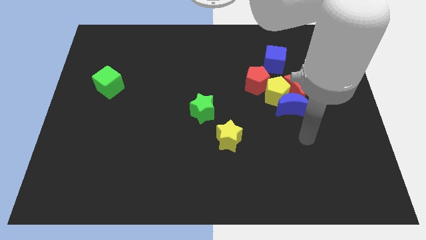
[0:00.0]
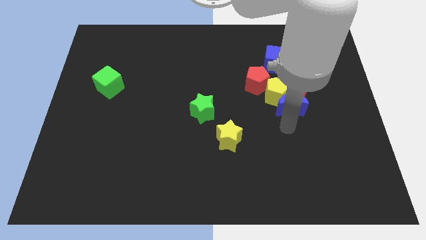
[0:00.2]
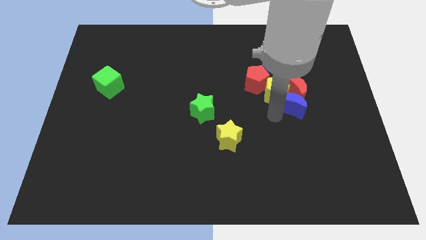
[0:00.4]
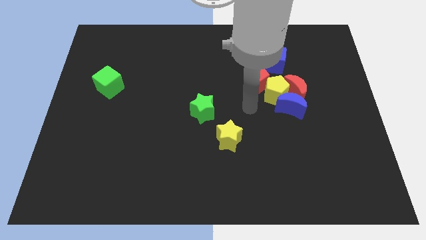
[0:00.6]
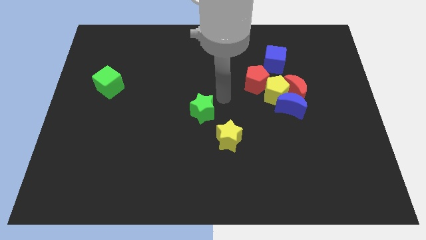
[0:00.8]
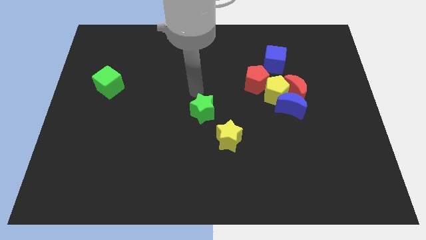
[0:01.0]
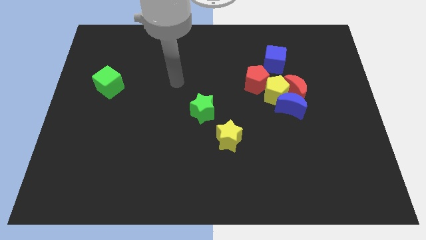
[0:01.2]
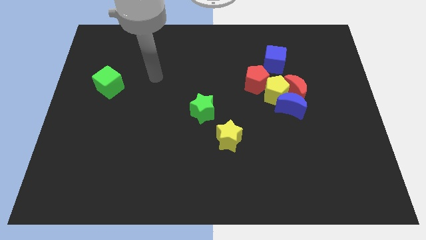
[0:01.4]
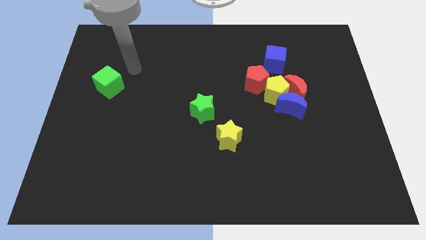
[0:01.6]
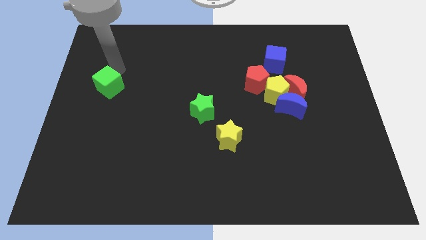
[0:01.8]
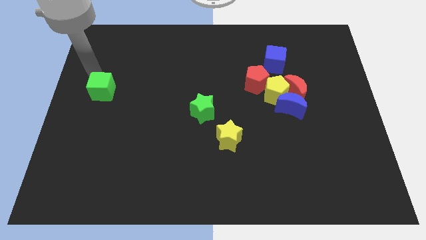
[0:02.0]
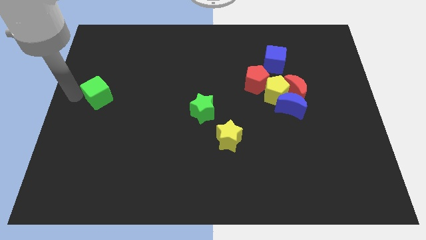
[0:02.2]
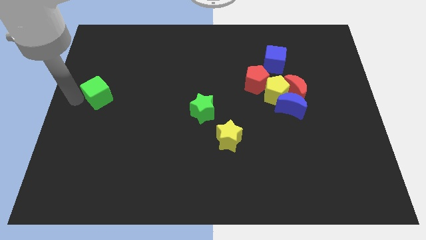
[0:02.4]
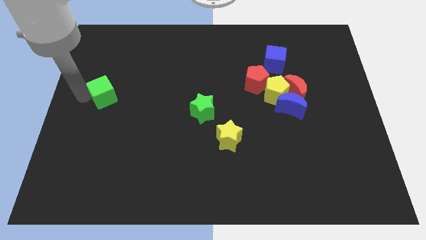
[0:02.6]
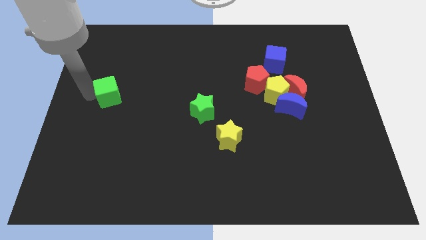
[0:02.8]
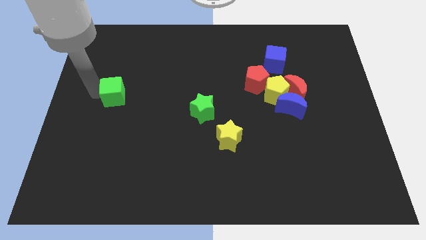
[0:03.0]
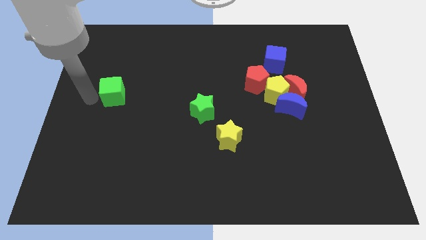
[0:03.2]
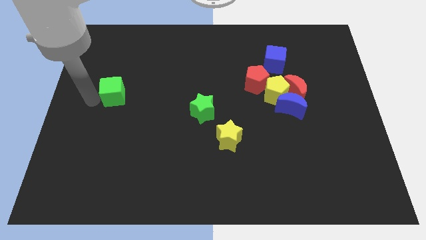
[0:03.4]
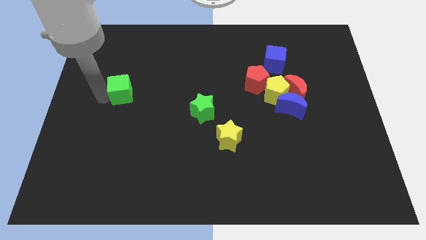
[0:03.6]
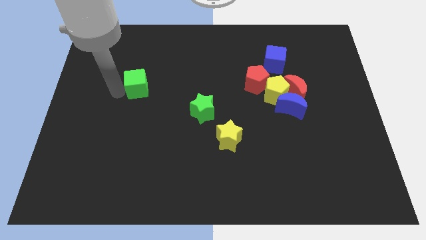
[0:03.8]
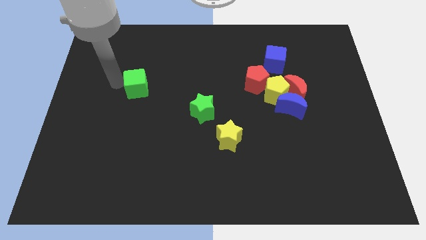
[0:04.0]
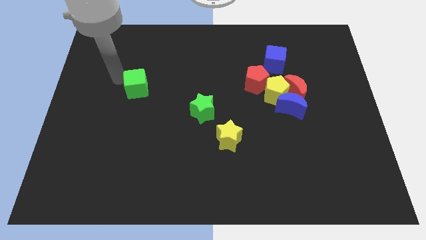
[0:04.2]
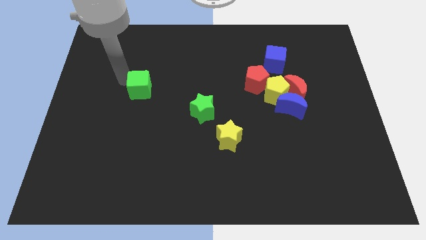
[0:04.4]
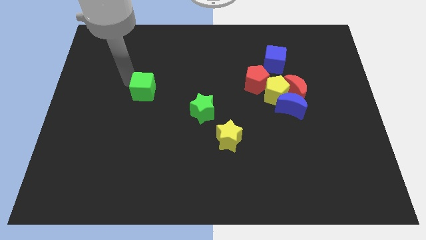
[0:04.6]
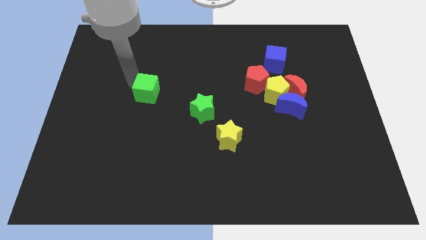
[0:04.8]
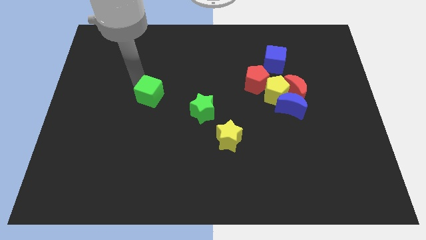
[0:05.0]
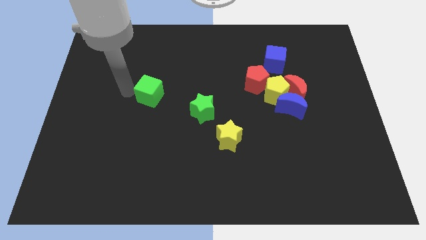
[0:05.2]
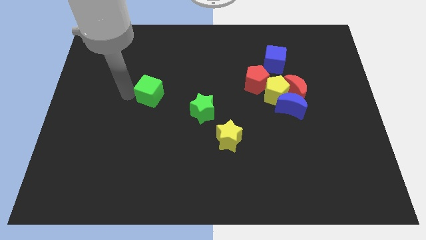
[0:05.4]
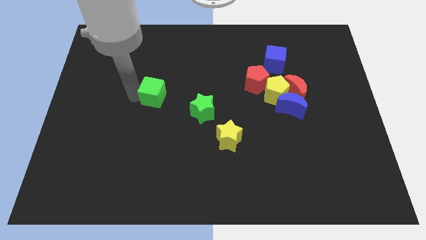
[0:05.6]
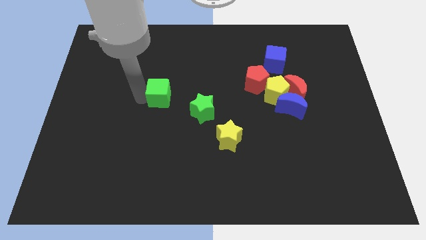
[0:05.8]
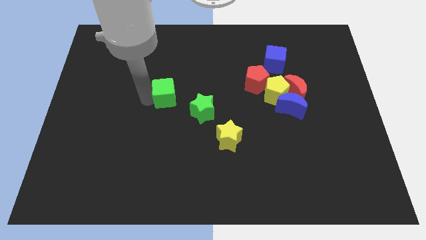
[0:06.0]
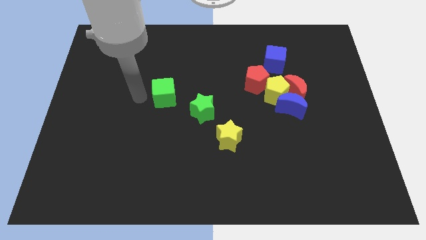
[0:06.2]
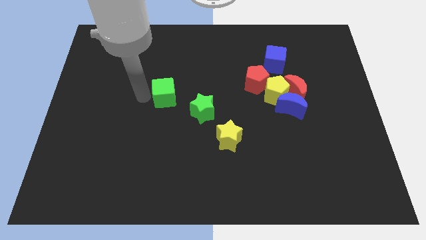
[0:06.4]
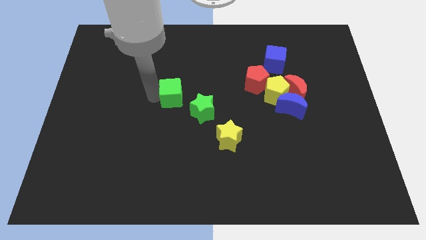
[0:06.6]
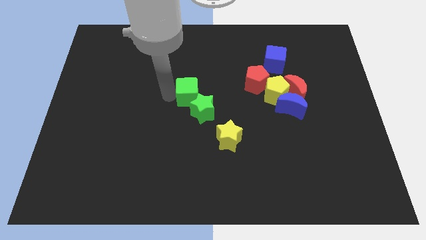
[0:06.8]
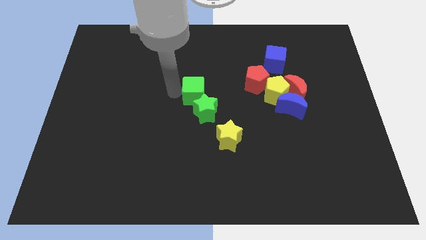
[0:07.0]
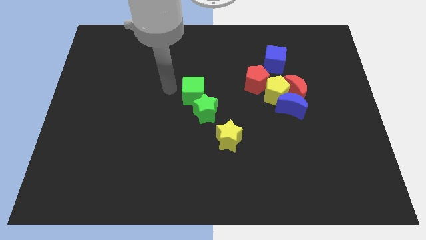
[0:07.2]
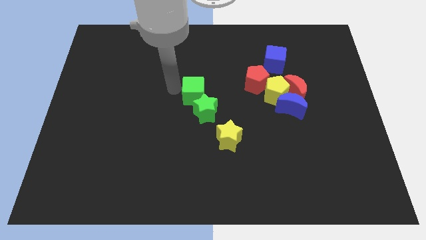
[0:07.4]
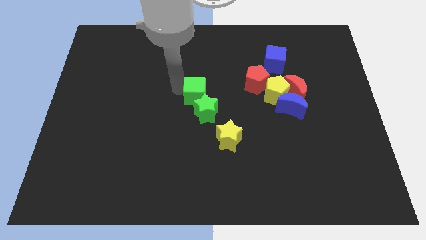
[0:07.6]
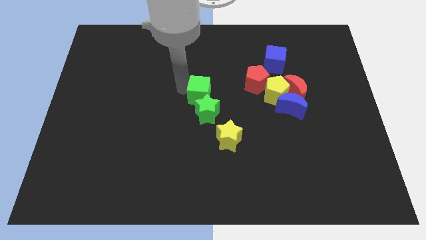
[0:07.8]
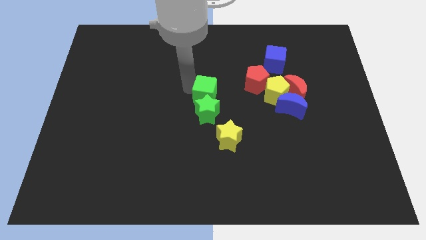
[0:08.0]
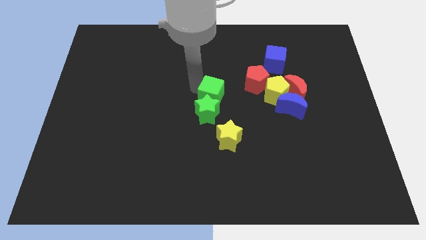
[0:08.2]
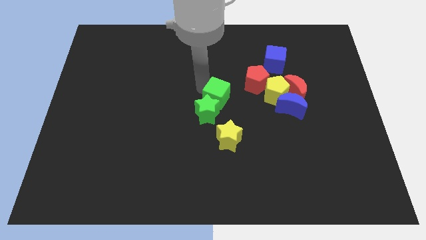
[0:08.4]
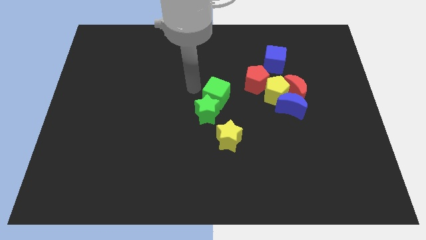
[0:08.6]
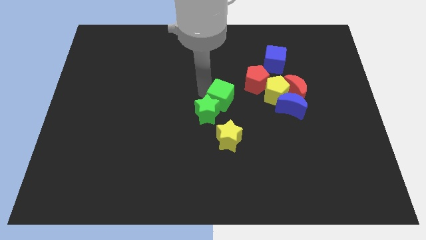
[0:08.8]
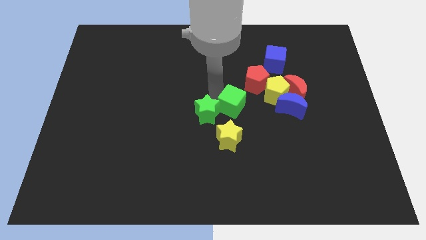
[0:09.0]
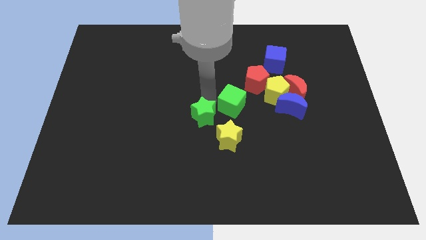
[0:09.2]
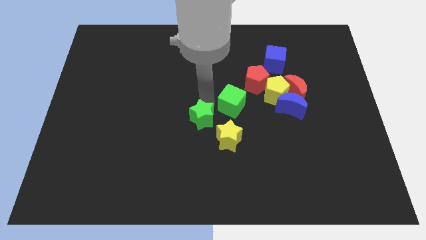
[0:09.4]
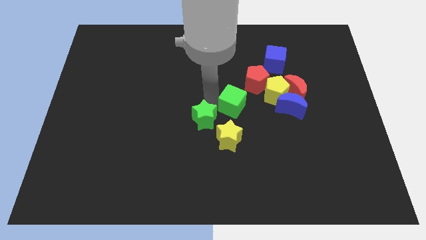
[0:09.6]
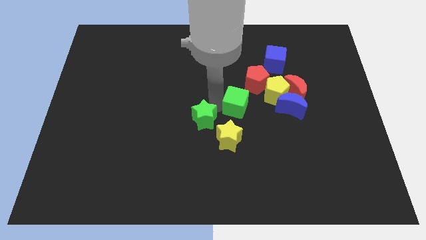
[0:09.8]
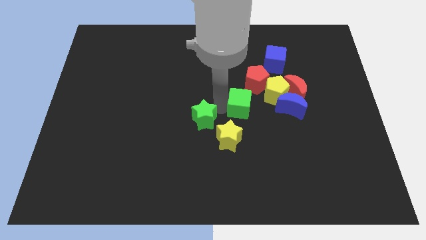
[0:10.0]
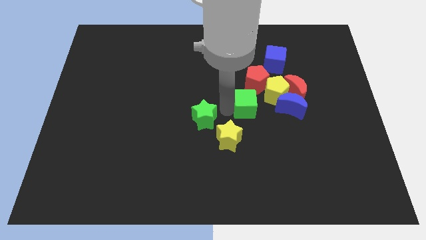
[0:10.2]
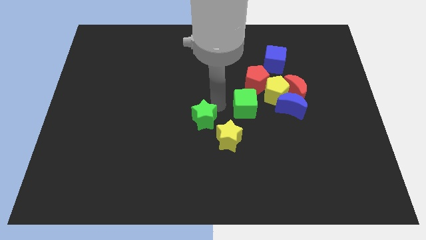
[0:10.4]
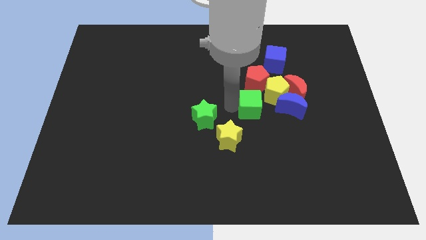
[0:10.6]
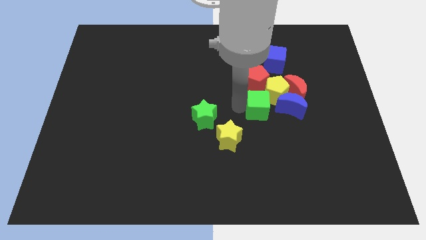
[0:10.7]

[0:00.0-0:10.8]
push the green cube to the bottom left of the red moon
